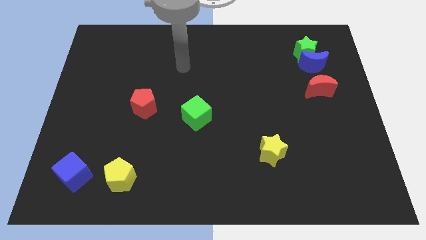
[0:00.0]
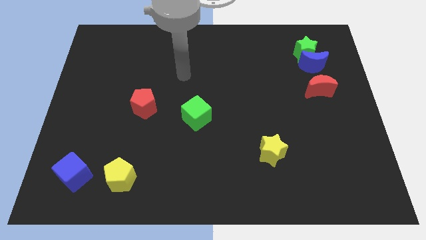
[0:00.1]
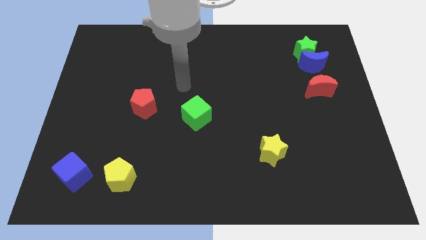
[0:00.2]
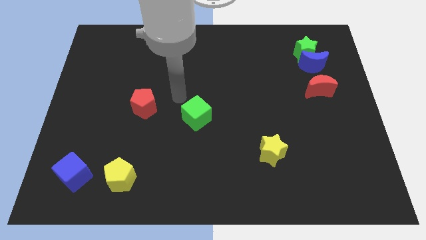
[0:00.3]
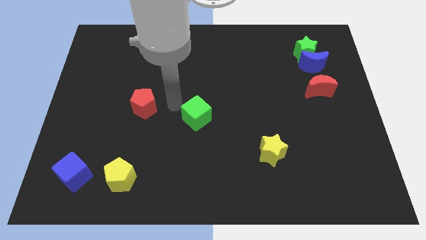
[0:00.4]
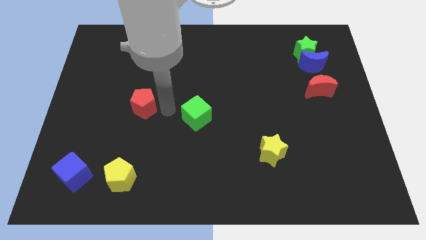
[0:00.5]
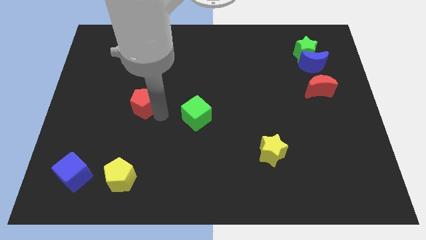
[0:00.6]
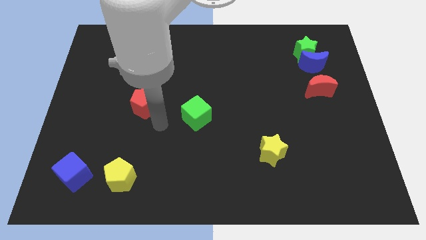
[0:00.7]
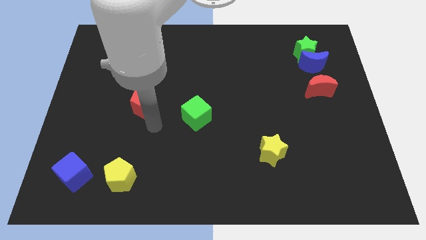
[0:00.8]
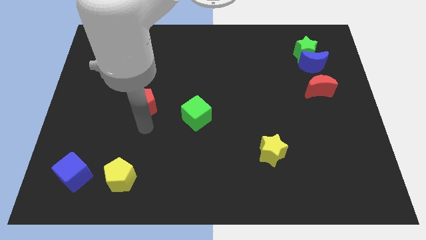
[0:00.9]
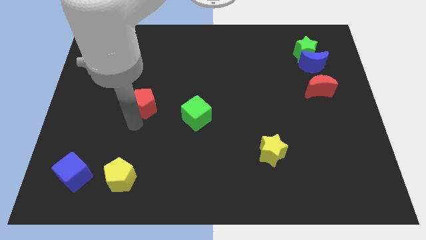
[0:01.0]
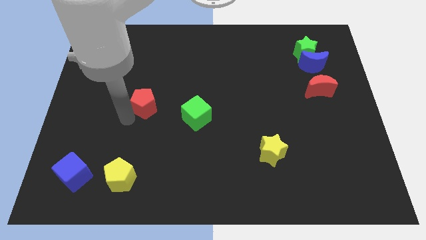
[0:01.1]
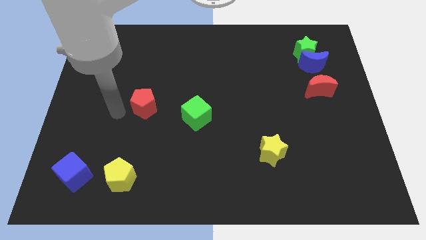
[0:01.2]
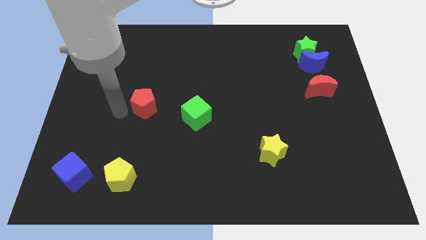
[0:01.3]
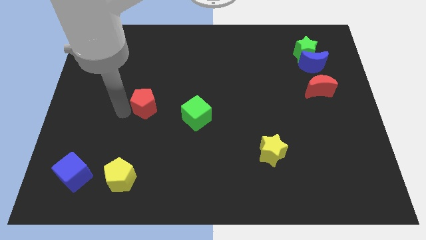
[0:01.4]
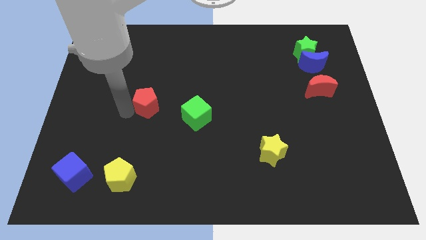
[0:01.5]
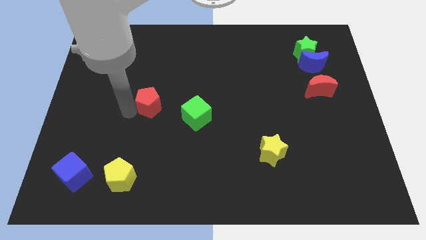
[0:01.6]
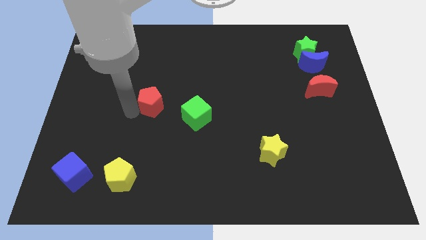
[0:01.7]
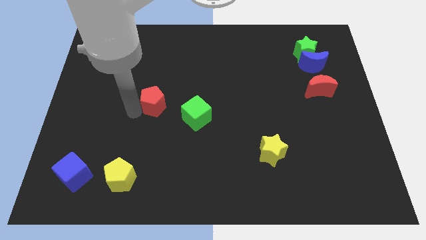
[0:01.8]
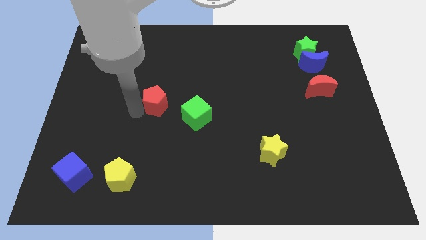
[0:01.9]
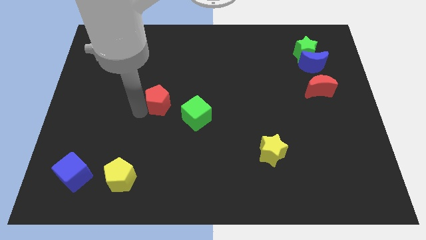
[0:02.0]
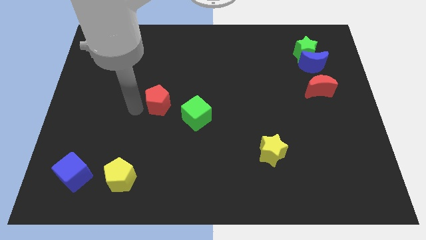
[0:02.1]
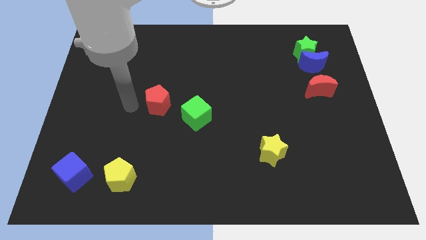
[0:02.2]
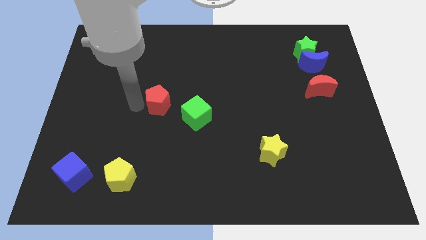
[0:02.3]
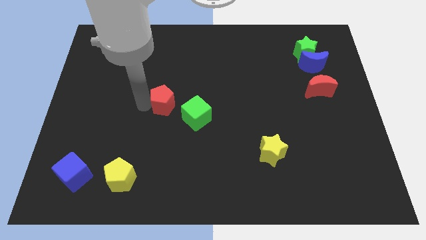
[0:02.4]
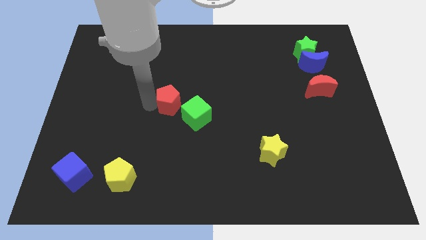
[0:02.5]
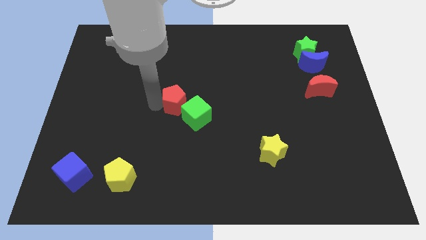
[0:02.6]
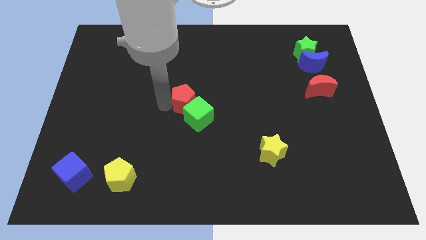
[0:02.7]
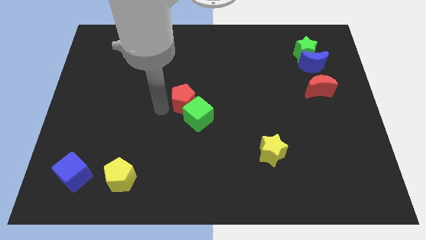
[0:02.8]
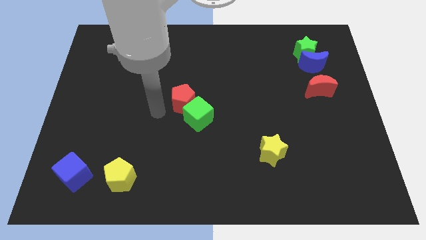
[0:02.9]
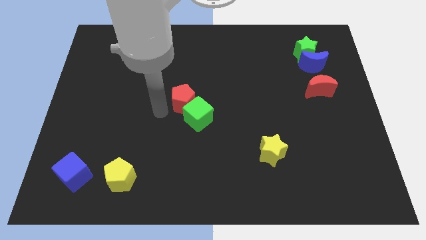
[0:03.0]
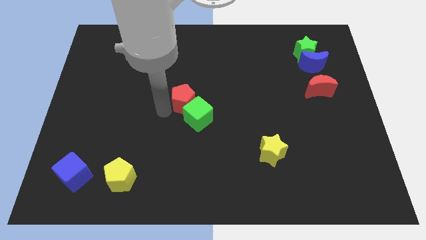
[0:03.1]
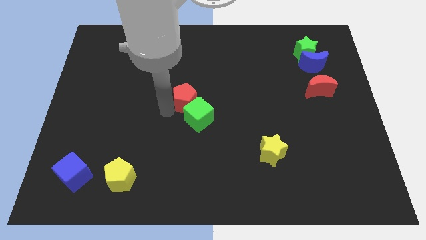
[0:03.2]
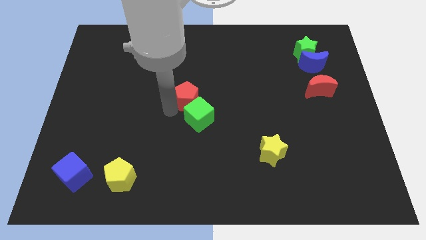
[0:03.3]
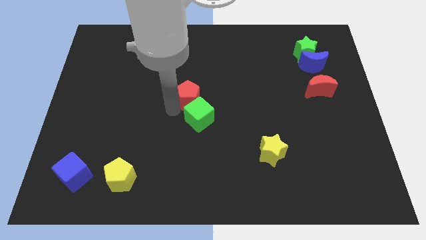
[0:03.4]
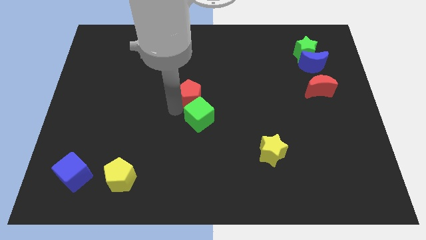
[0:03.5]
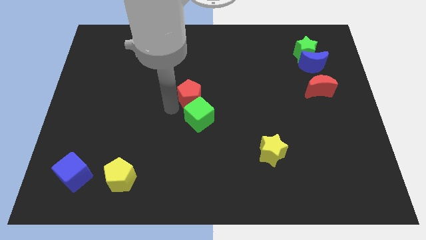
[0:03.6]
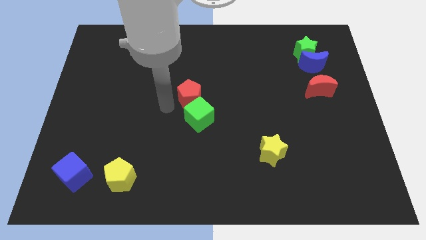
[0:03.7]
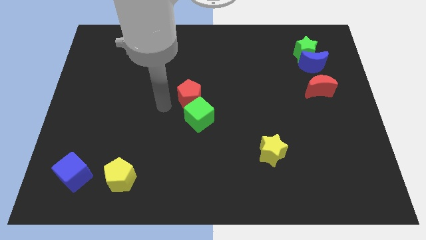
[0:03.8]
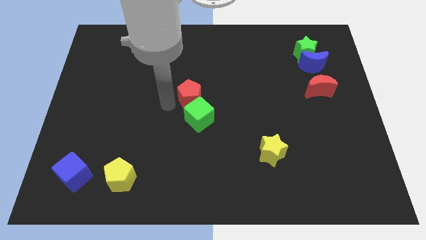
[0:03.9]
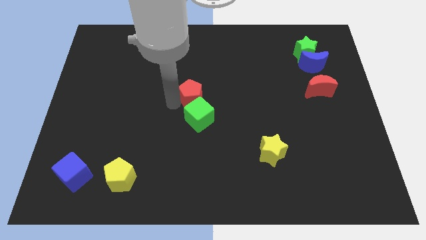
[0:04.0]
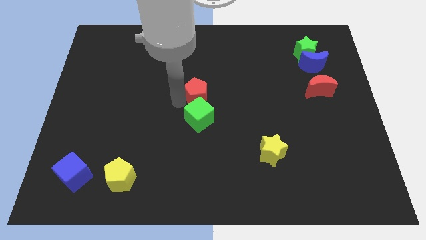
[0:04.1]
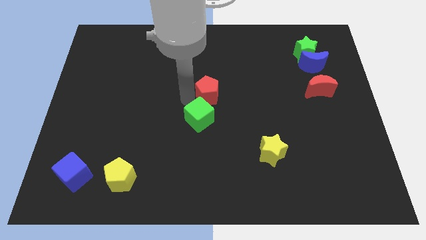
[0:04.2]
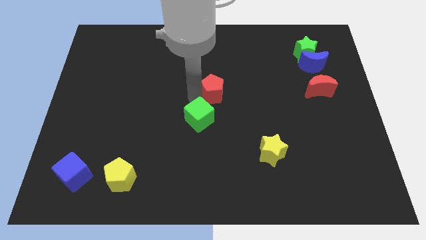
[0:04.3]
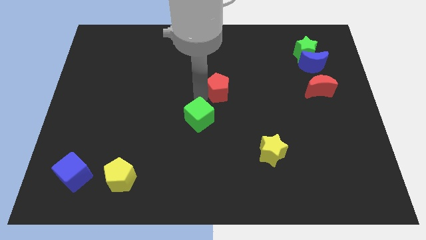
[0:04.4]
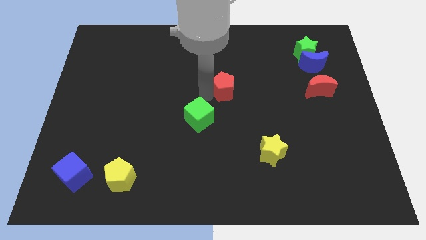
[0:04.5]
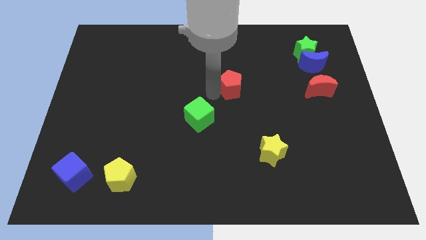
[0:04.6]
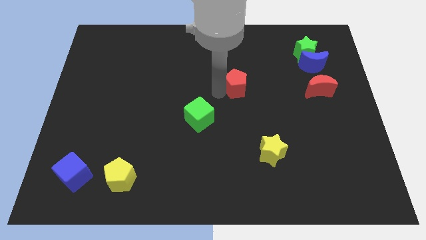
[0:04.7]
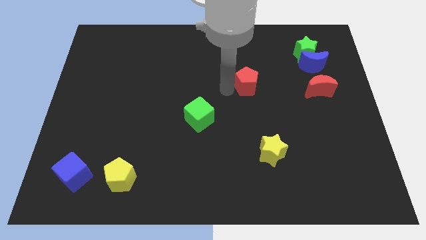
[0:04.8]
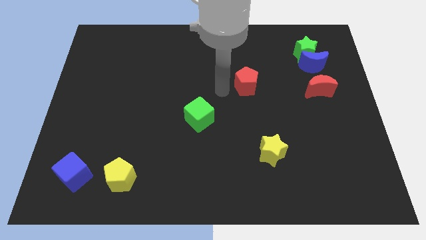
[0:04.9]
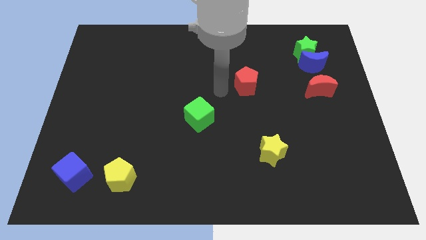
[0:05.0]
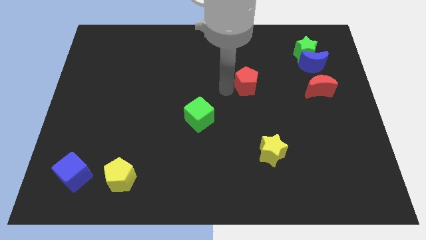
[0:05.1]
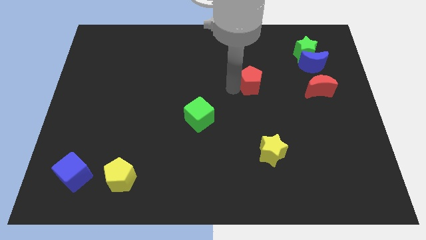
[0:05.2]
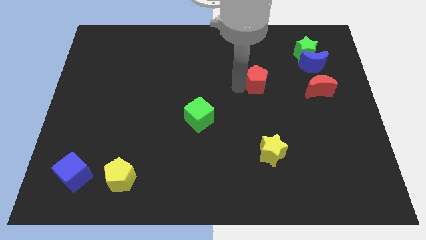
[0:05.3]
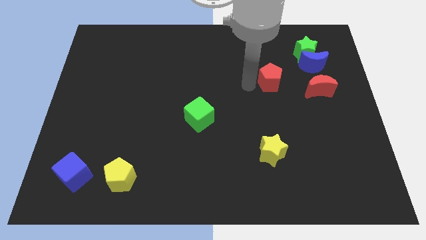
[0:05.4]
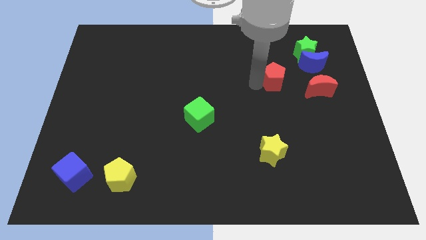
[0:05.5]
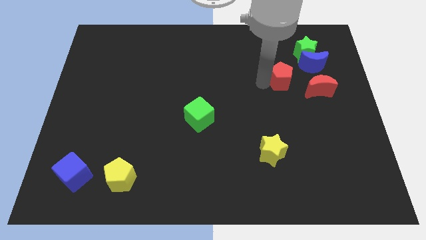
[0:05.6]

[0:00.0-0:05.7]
put the red pentagon to the top left side of the red moon

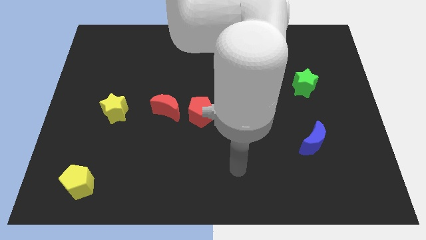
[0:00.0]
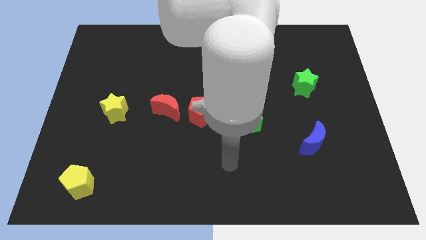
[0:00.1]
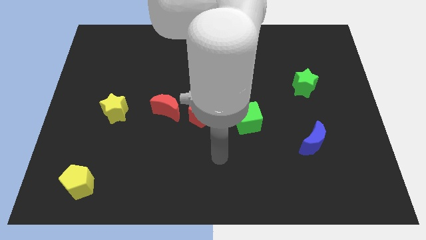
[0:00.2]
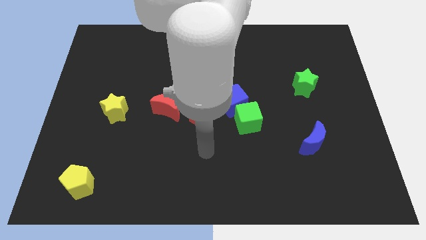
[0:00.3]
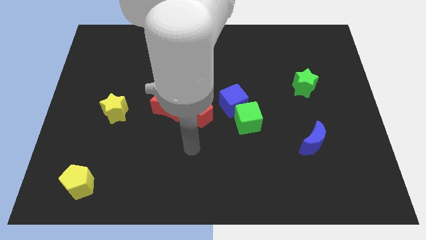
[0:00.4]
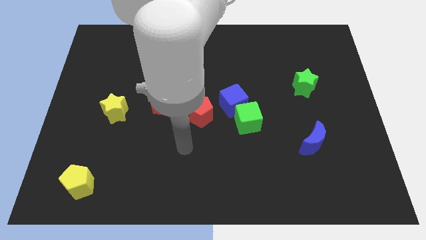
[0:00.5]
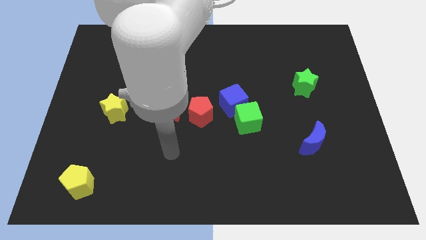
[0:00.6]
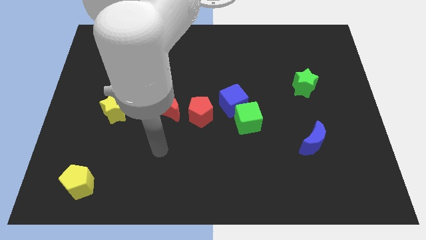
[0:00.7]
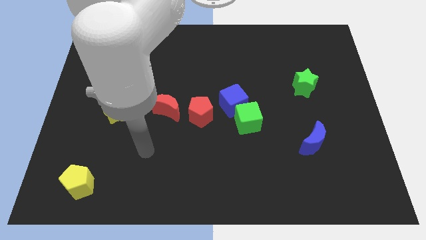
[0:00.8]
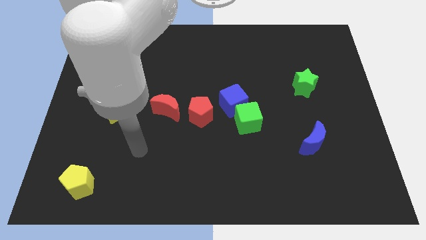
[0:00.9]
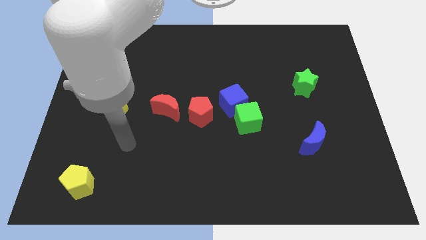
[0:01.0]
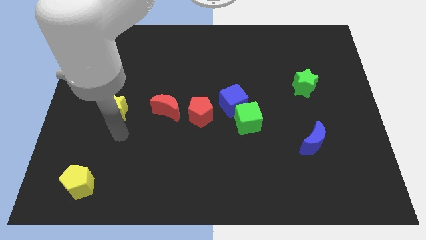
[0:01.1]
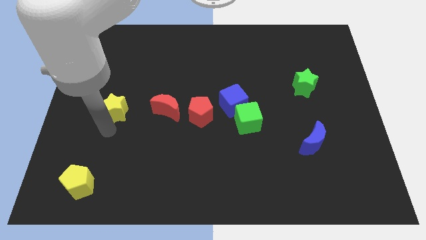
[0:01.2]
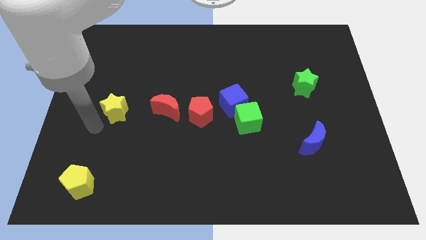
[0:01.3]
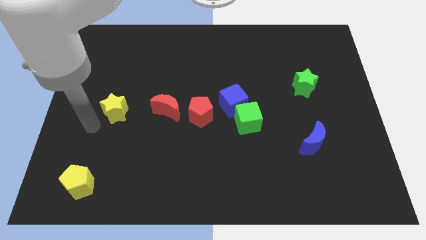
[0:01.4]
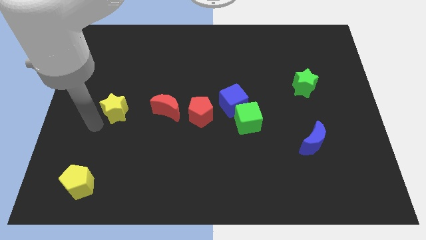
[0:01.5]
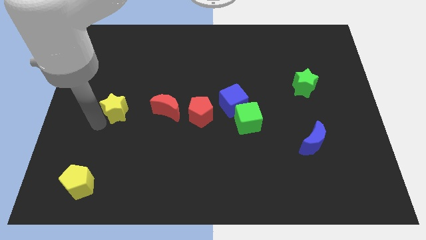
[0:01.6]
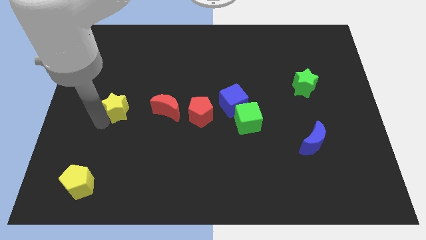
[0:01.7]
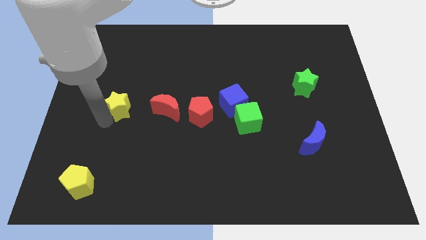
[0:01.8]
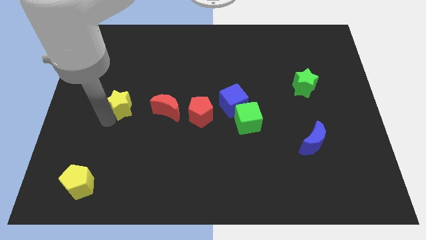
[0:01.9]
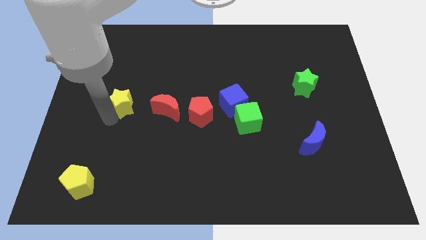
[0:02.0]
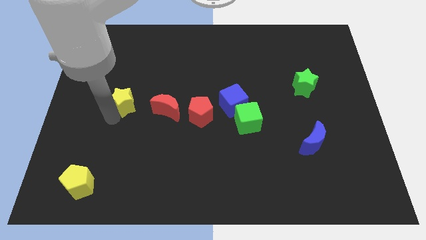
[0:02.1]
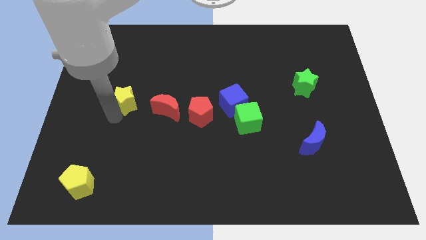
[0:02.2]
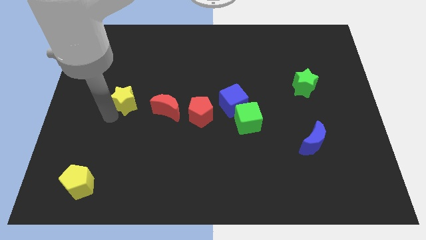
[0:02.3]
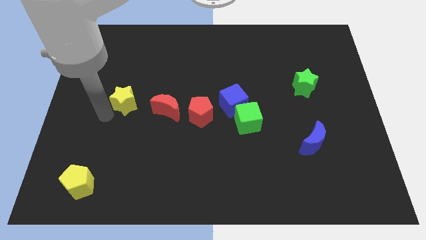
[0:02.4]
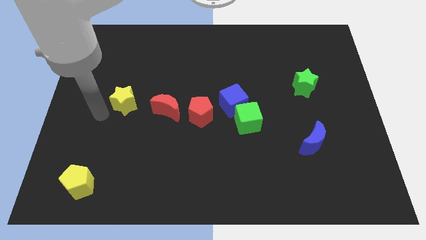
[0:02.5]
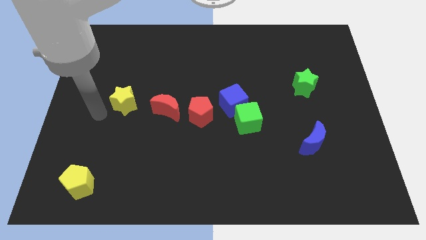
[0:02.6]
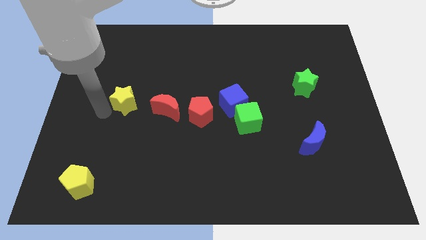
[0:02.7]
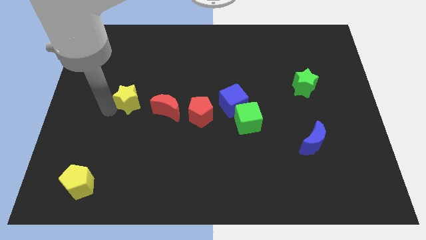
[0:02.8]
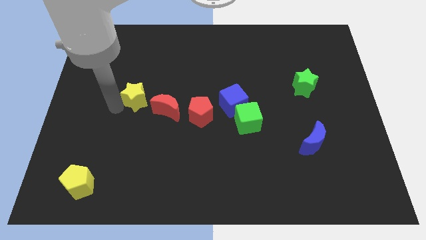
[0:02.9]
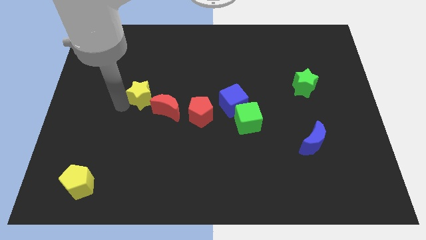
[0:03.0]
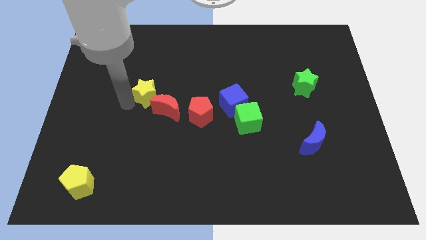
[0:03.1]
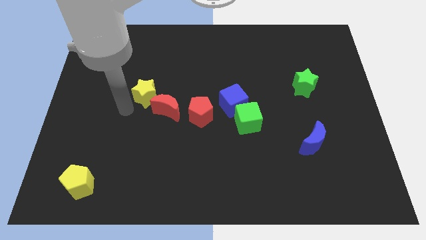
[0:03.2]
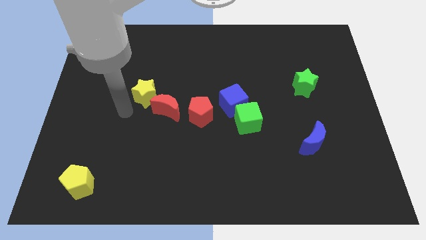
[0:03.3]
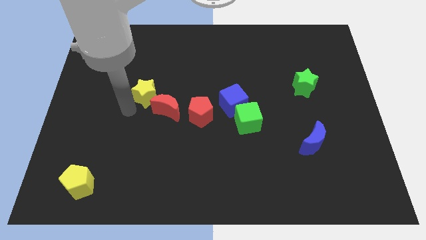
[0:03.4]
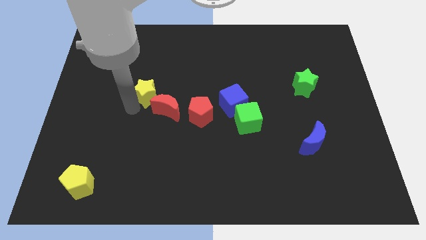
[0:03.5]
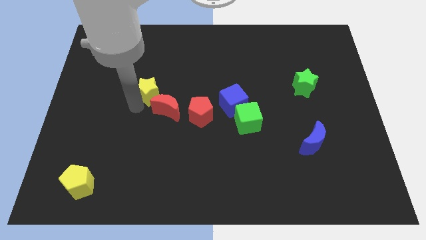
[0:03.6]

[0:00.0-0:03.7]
slide the yellow star above the red moon
